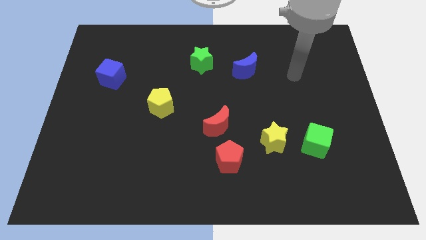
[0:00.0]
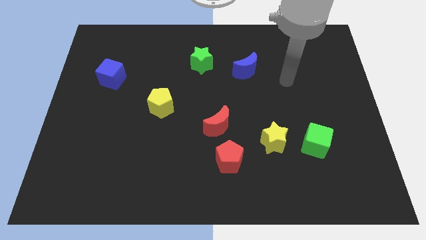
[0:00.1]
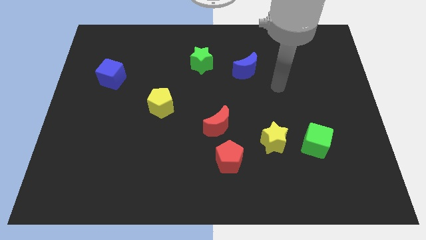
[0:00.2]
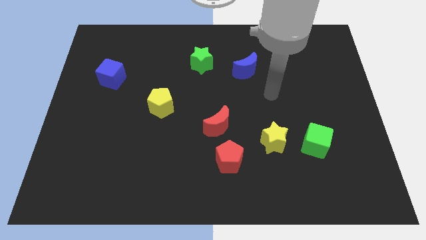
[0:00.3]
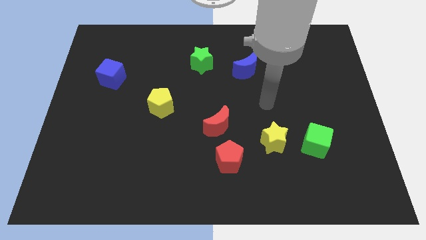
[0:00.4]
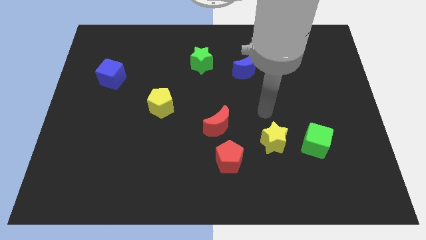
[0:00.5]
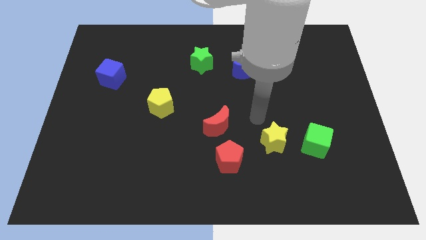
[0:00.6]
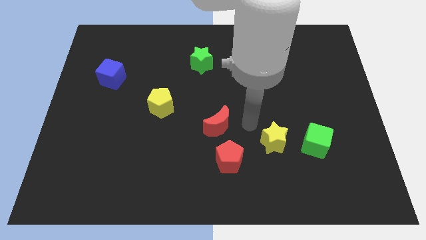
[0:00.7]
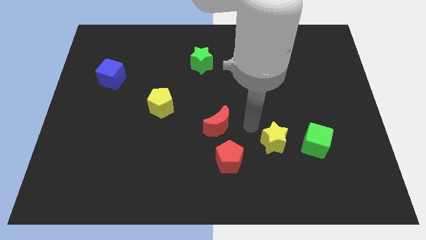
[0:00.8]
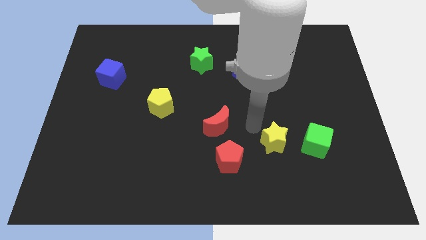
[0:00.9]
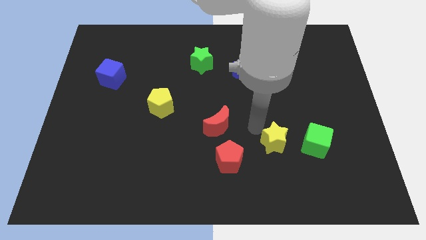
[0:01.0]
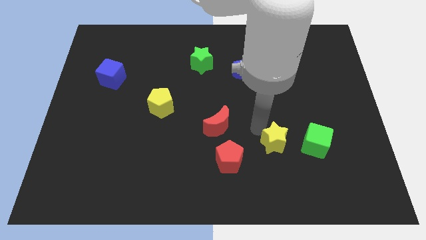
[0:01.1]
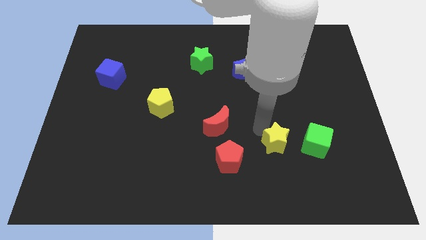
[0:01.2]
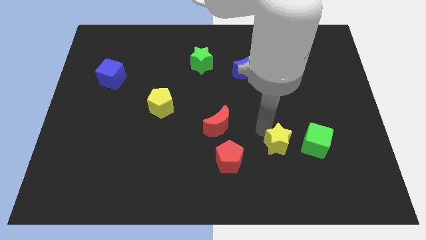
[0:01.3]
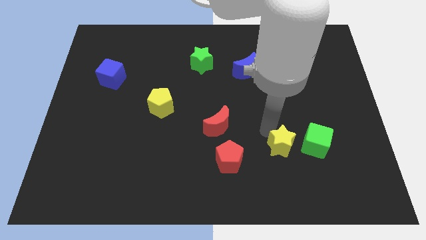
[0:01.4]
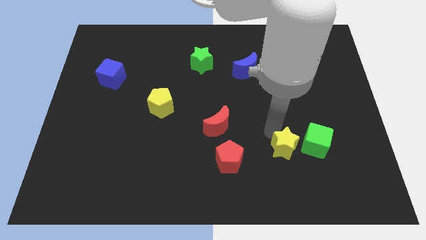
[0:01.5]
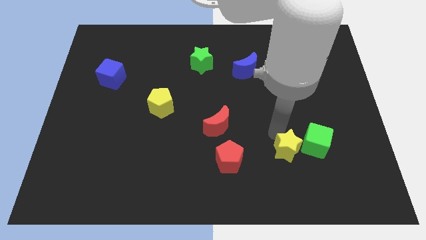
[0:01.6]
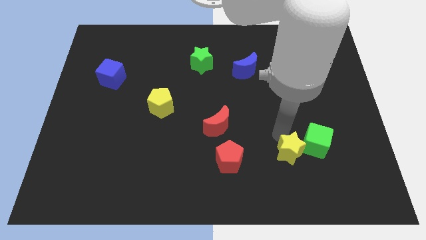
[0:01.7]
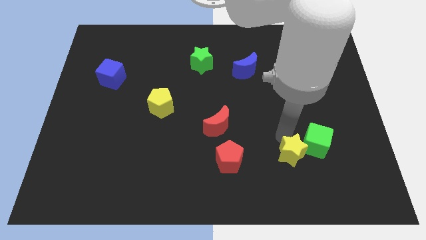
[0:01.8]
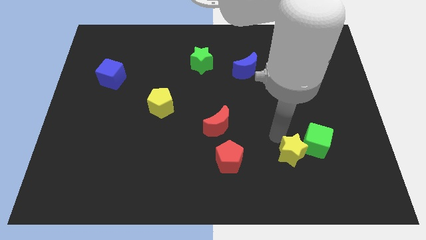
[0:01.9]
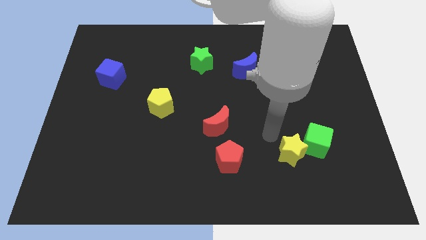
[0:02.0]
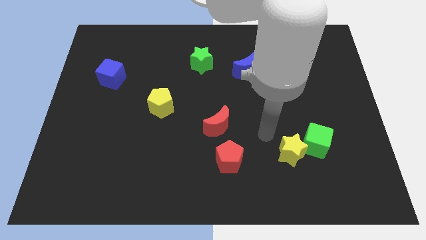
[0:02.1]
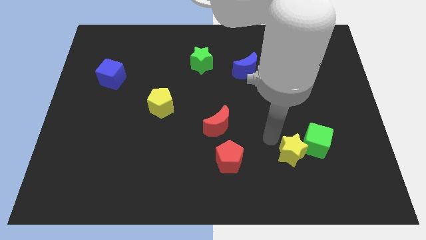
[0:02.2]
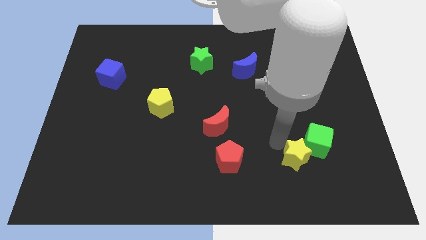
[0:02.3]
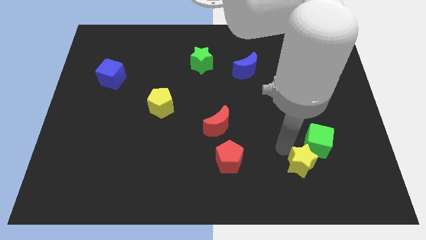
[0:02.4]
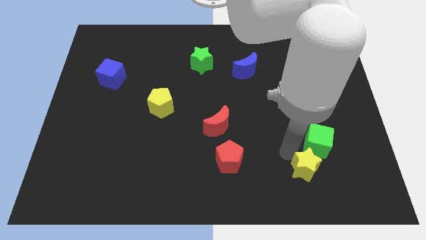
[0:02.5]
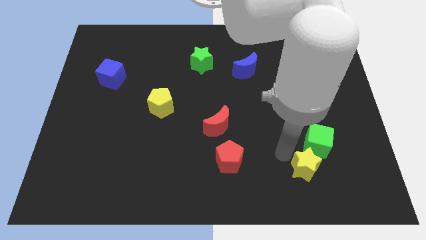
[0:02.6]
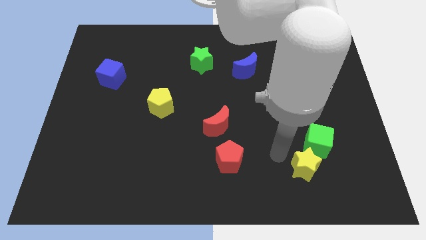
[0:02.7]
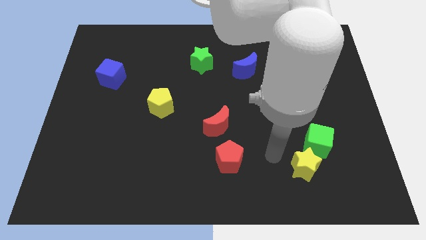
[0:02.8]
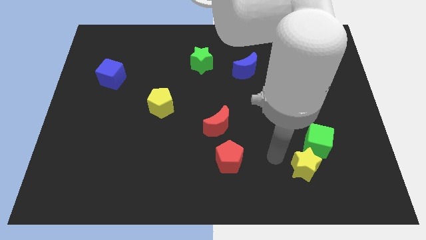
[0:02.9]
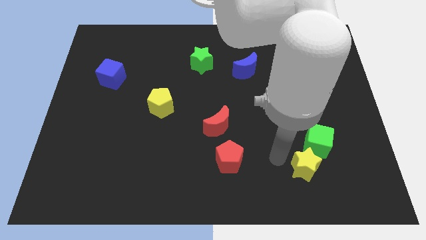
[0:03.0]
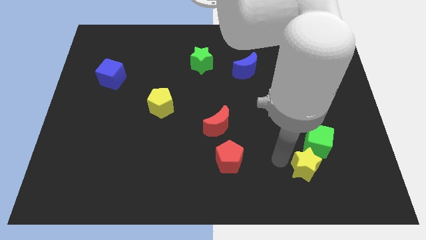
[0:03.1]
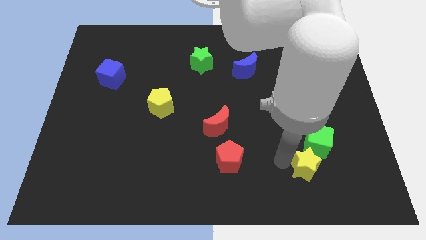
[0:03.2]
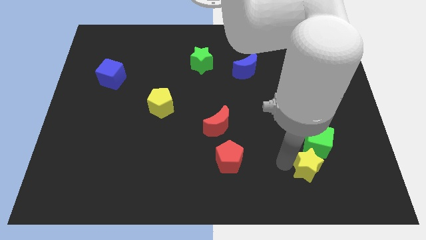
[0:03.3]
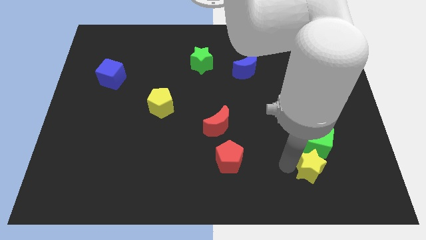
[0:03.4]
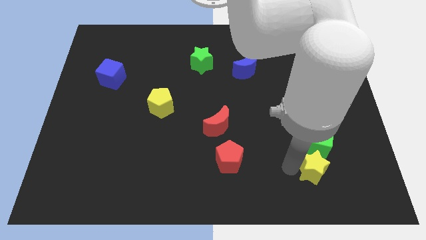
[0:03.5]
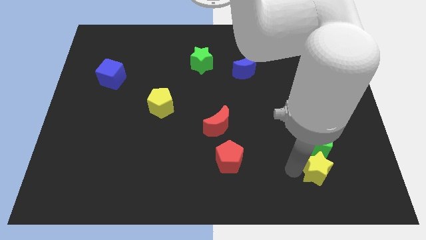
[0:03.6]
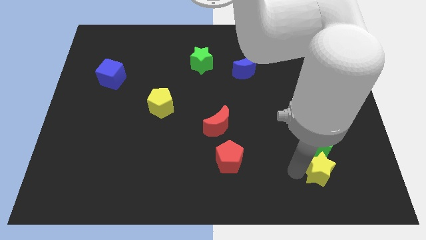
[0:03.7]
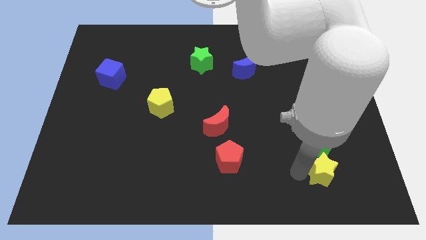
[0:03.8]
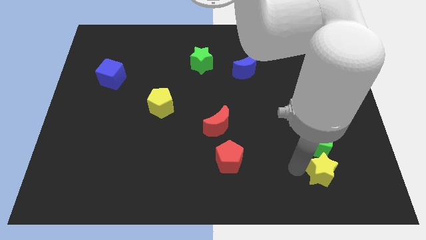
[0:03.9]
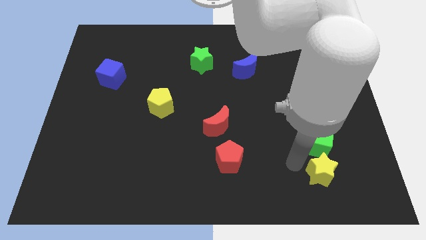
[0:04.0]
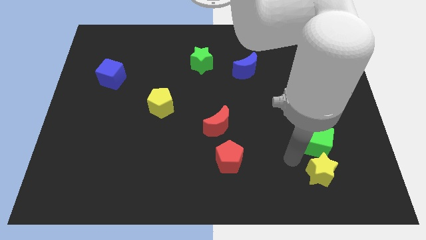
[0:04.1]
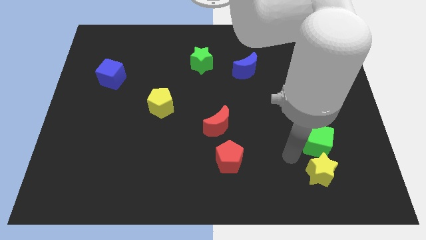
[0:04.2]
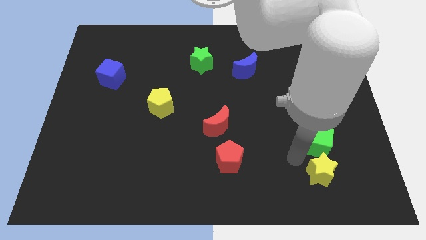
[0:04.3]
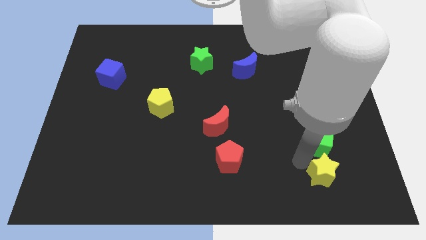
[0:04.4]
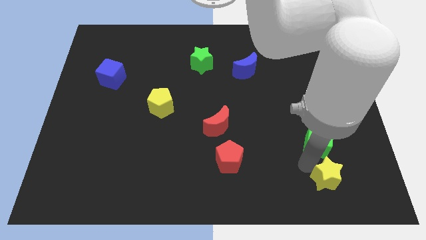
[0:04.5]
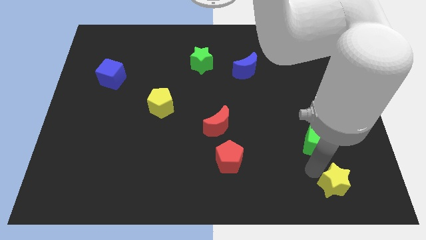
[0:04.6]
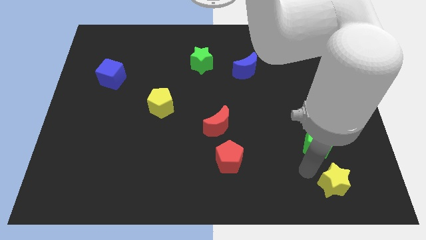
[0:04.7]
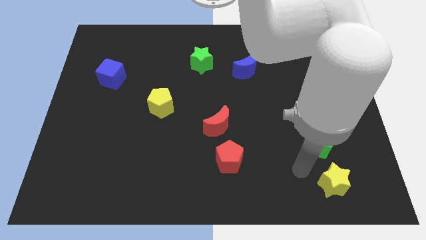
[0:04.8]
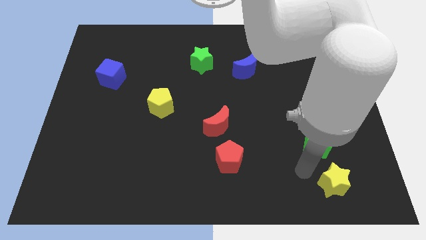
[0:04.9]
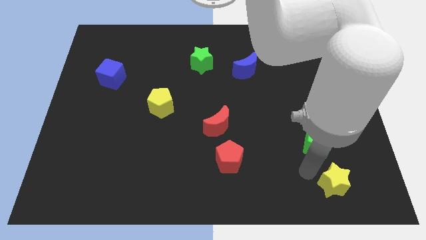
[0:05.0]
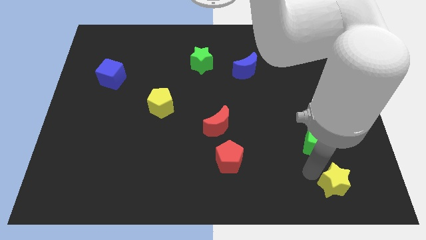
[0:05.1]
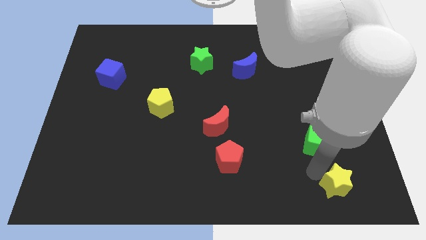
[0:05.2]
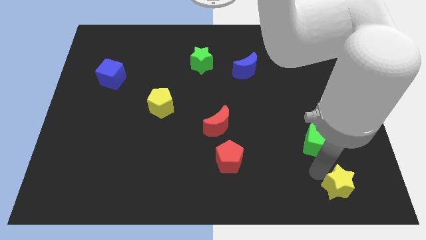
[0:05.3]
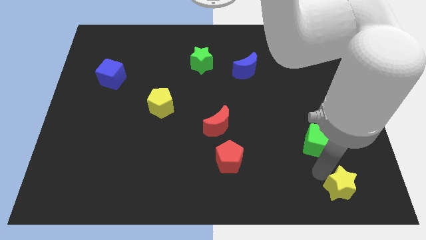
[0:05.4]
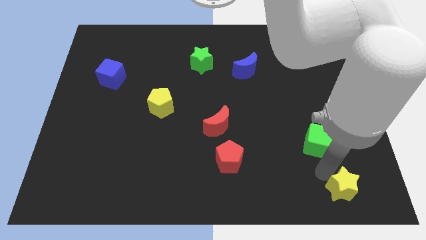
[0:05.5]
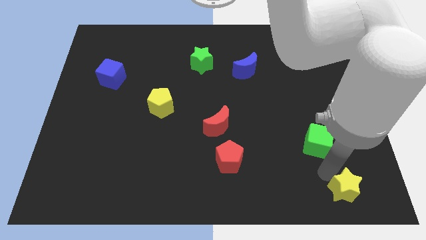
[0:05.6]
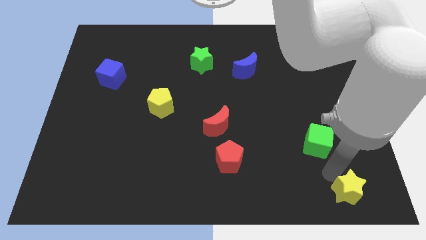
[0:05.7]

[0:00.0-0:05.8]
put the yellow star to the bottom right
